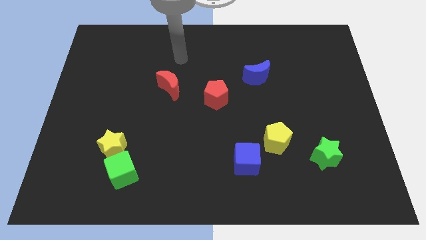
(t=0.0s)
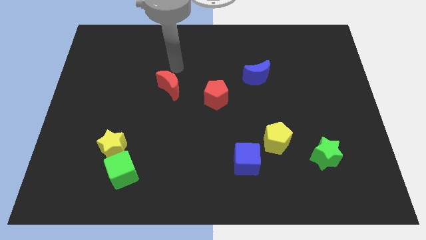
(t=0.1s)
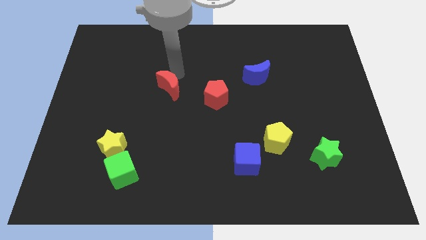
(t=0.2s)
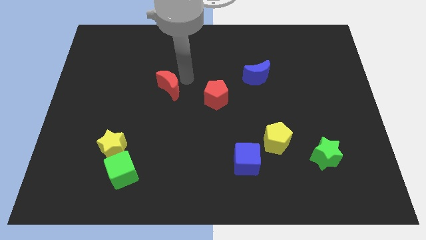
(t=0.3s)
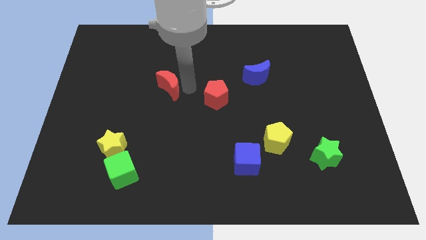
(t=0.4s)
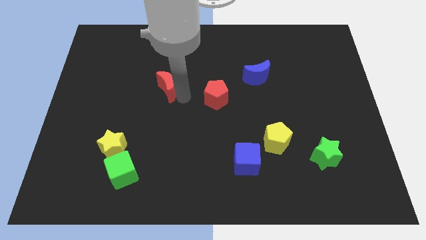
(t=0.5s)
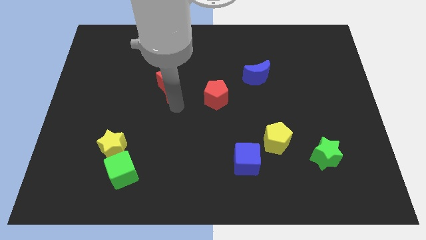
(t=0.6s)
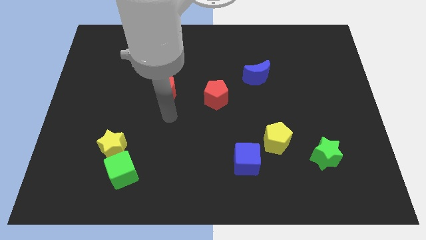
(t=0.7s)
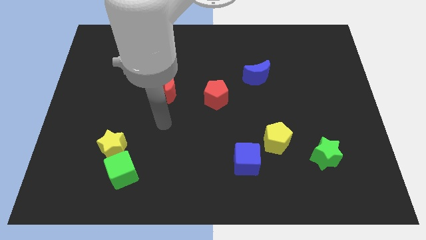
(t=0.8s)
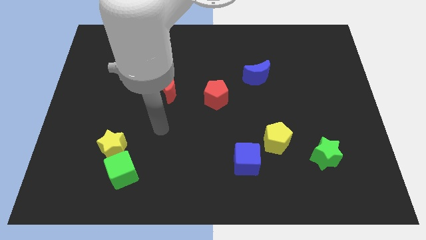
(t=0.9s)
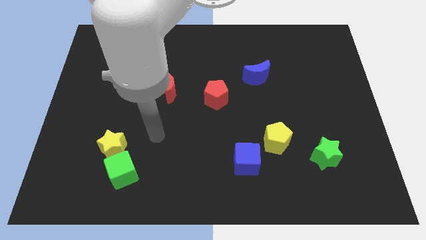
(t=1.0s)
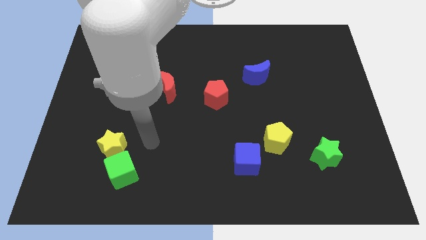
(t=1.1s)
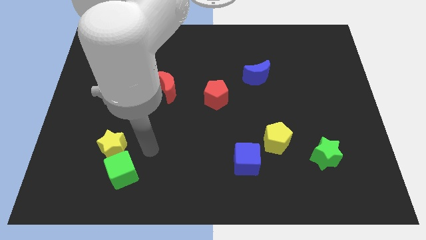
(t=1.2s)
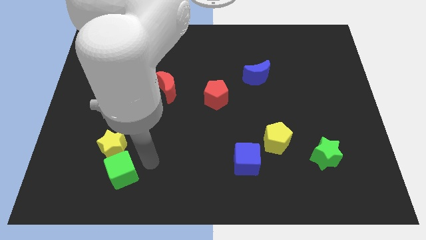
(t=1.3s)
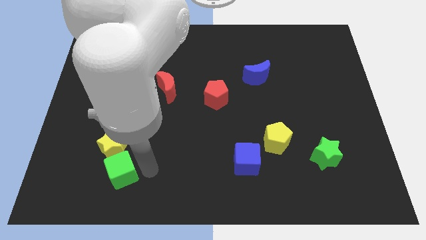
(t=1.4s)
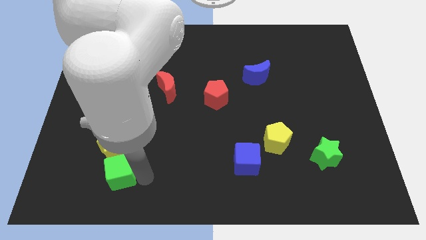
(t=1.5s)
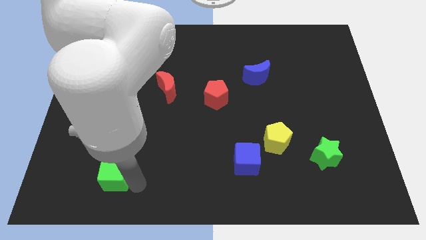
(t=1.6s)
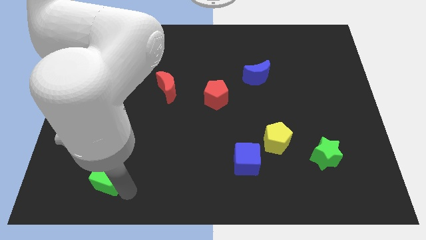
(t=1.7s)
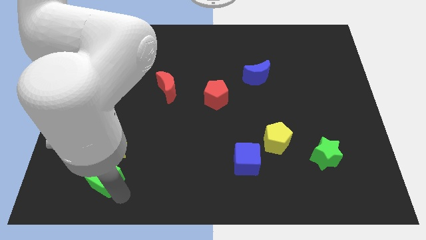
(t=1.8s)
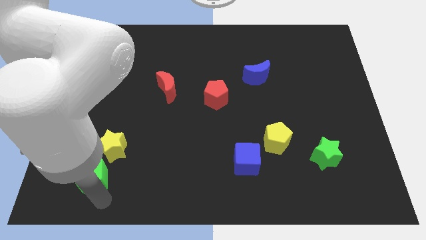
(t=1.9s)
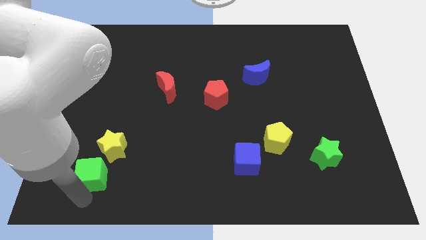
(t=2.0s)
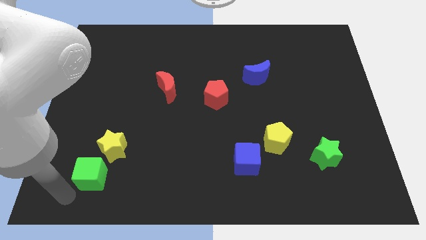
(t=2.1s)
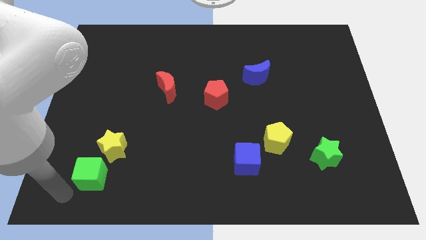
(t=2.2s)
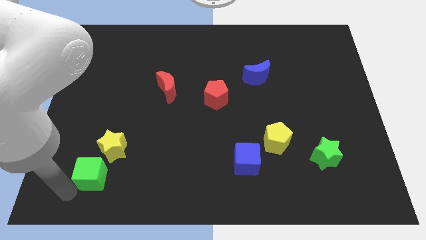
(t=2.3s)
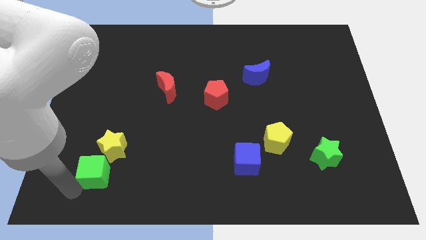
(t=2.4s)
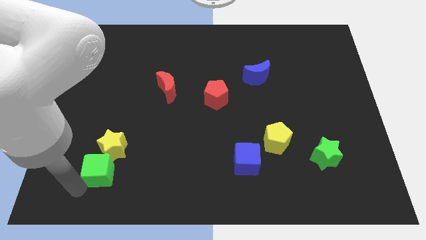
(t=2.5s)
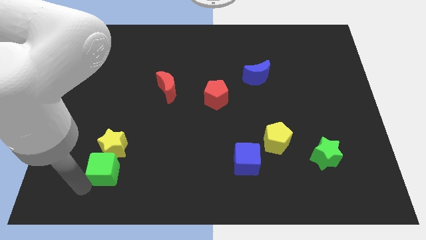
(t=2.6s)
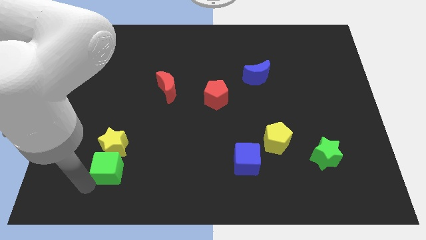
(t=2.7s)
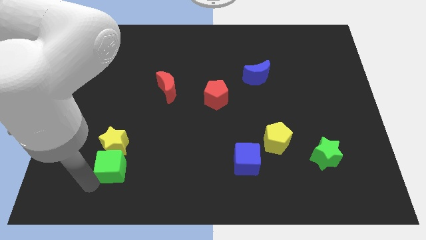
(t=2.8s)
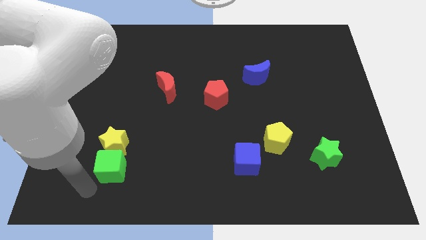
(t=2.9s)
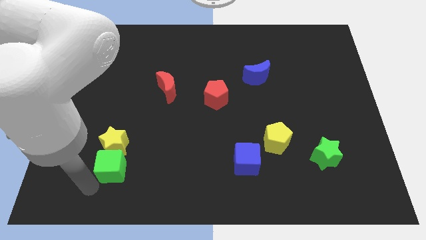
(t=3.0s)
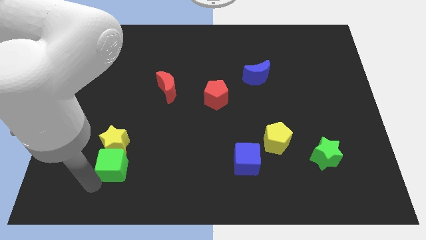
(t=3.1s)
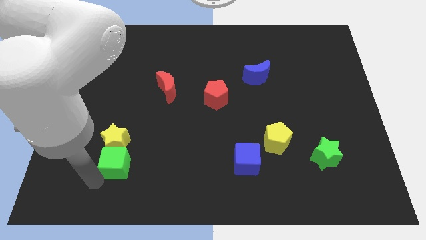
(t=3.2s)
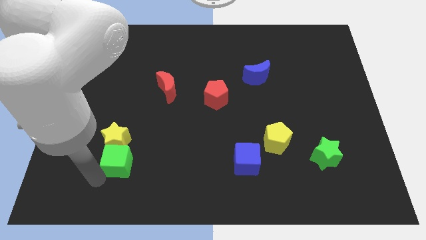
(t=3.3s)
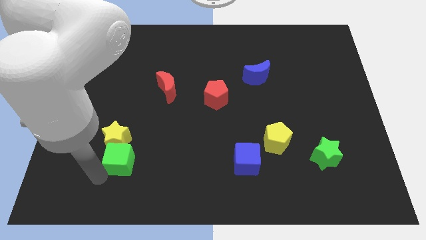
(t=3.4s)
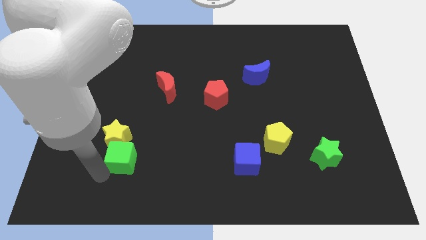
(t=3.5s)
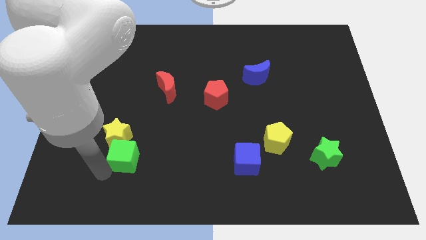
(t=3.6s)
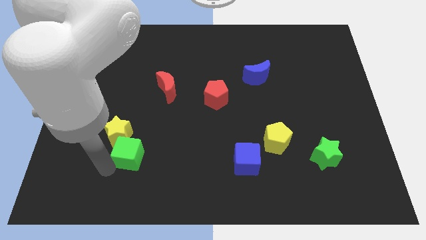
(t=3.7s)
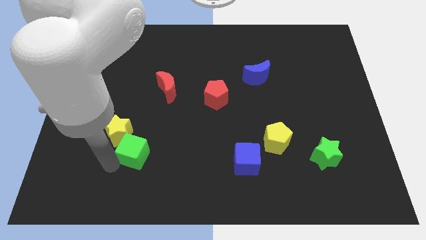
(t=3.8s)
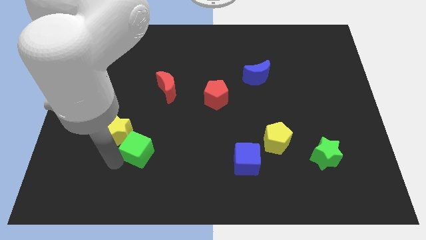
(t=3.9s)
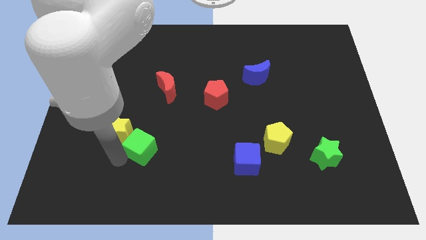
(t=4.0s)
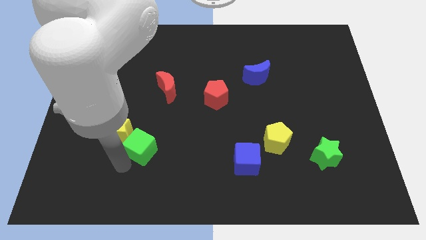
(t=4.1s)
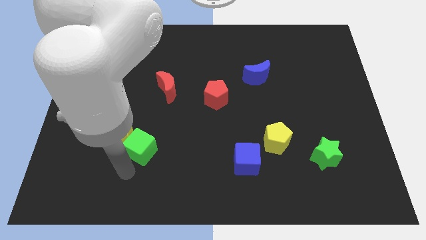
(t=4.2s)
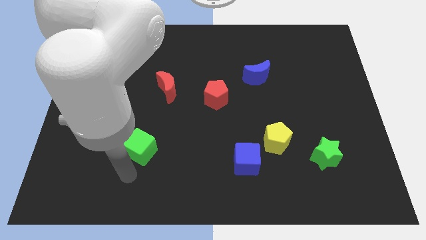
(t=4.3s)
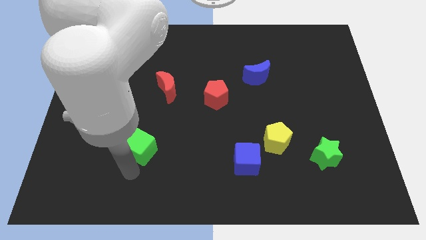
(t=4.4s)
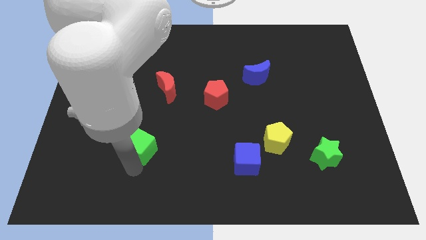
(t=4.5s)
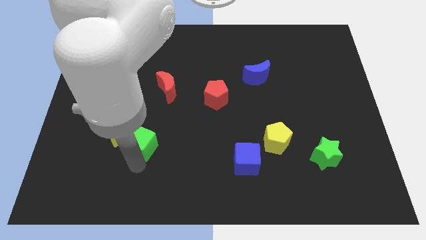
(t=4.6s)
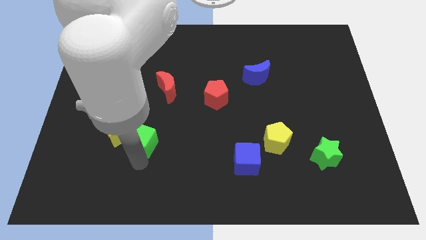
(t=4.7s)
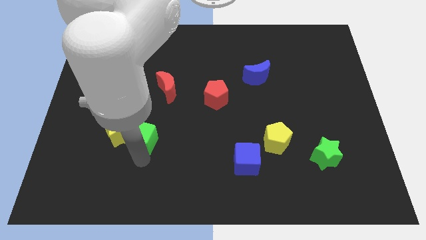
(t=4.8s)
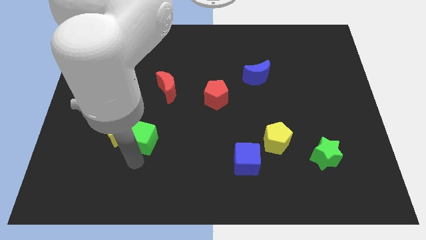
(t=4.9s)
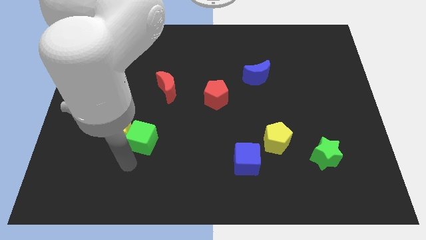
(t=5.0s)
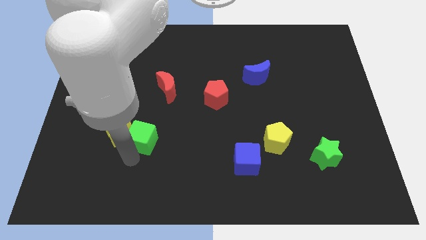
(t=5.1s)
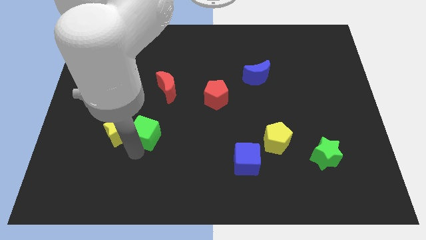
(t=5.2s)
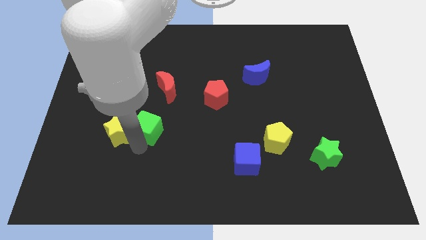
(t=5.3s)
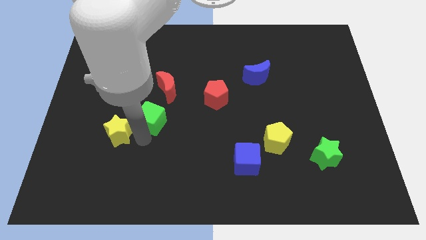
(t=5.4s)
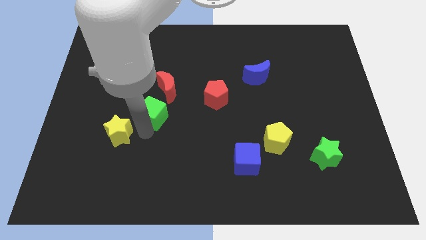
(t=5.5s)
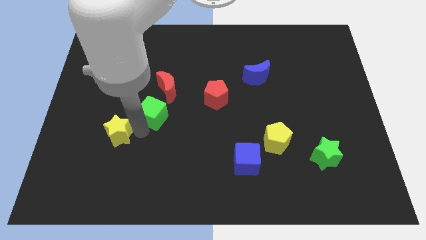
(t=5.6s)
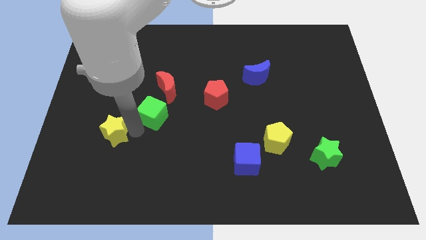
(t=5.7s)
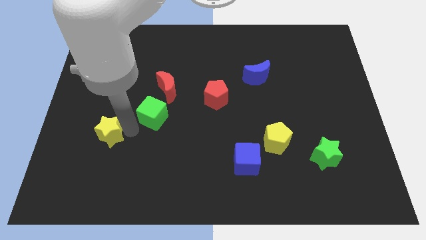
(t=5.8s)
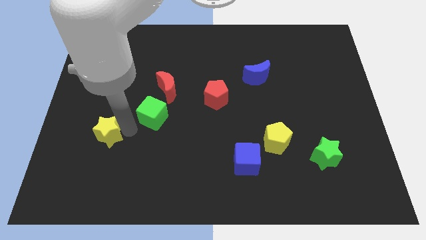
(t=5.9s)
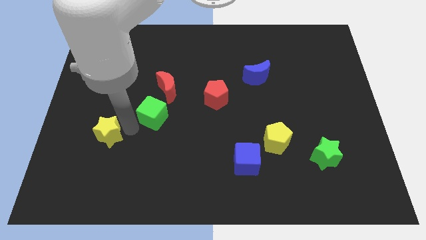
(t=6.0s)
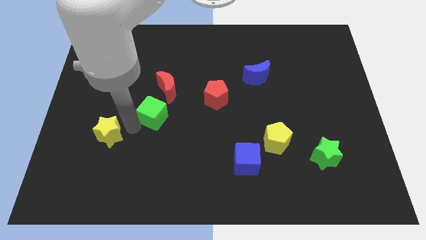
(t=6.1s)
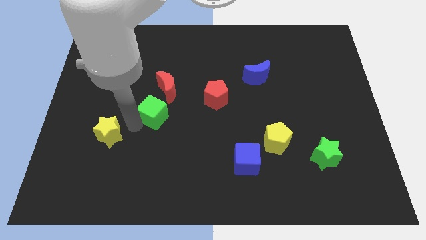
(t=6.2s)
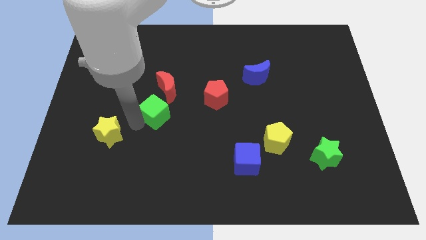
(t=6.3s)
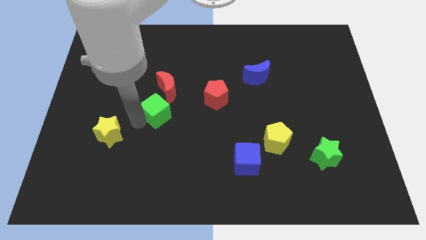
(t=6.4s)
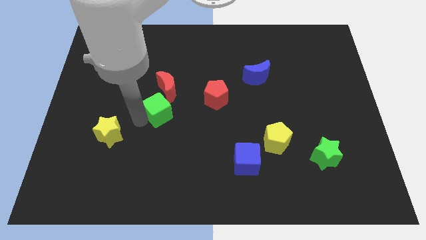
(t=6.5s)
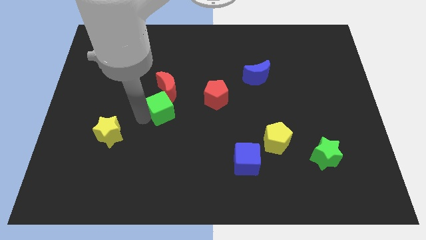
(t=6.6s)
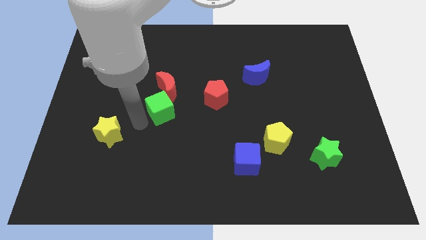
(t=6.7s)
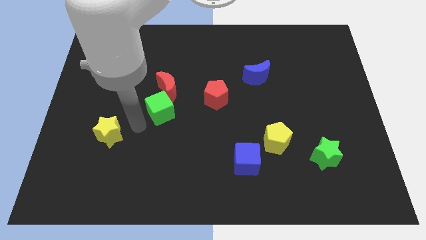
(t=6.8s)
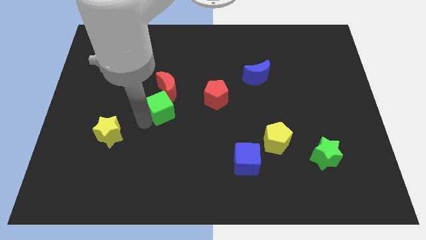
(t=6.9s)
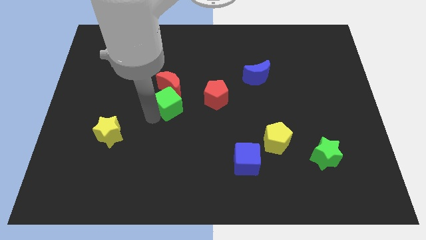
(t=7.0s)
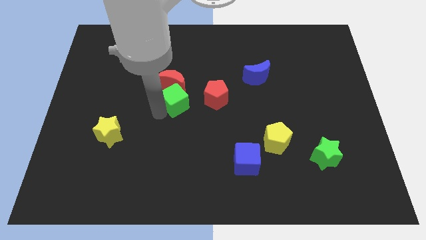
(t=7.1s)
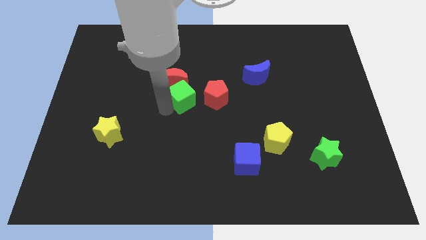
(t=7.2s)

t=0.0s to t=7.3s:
slide the green cube diagonally up and to the right

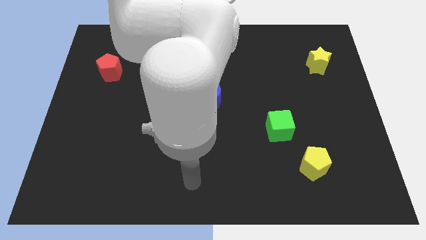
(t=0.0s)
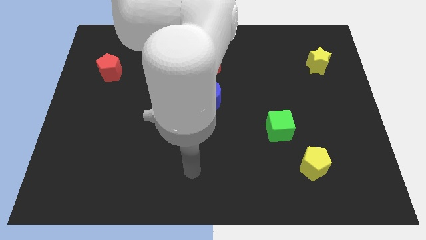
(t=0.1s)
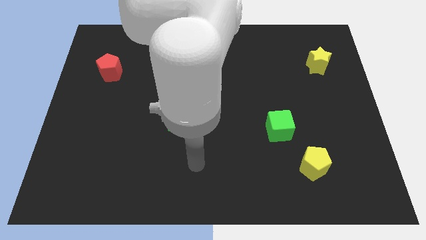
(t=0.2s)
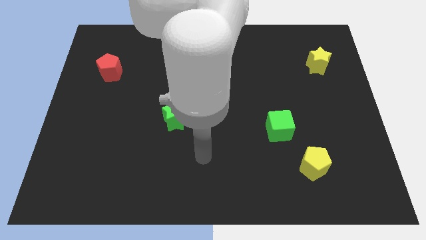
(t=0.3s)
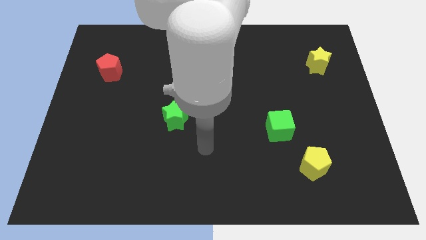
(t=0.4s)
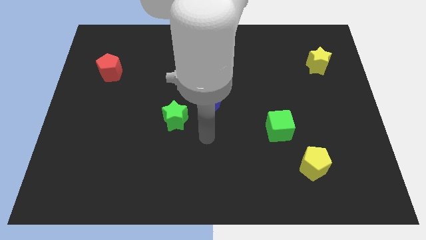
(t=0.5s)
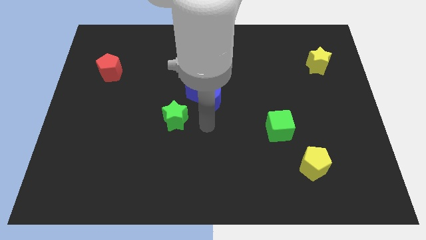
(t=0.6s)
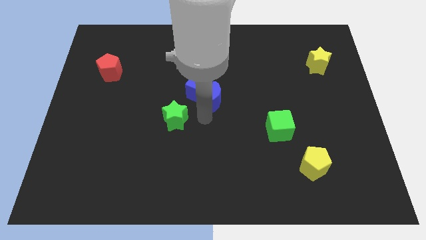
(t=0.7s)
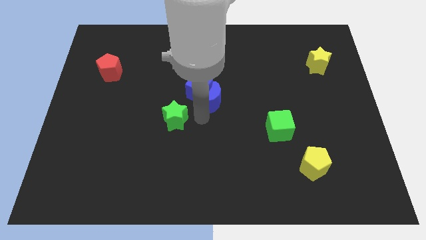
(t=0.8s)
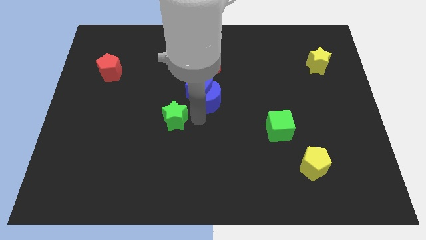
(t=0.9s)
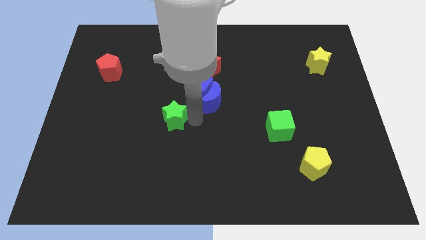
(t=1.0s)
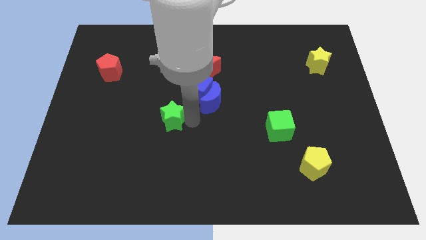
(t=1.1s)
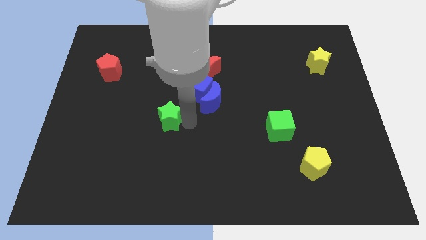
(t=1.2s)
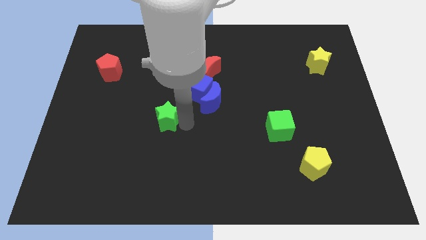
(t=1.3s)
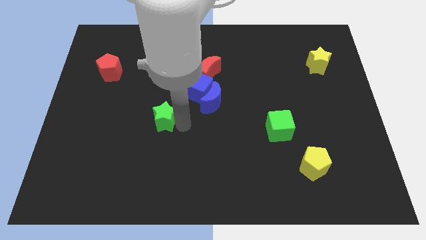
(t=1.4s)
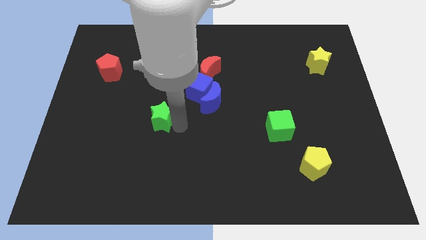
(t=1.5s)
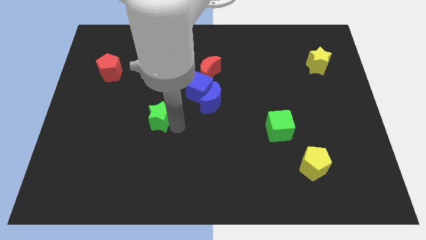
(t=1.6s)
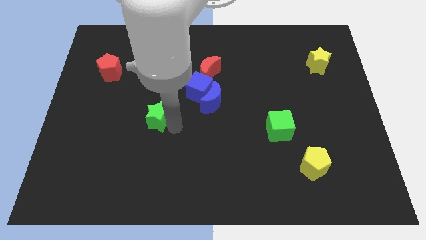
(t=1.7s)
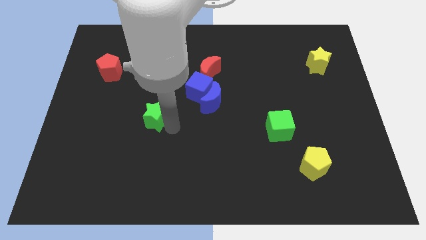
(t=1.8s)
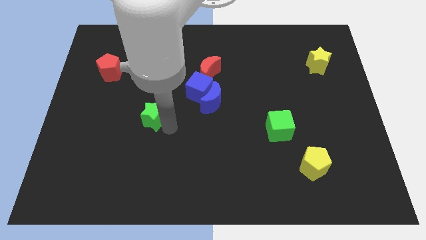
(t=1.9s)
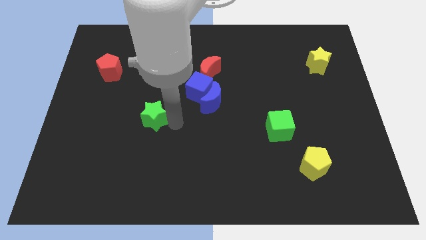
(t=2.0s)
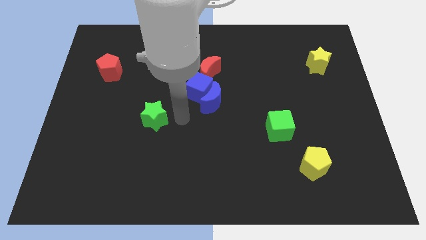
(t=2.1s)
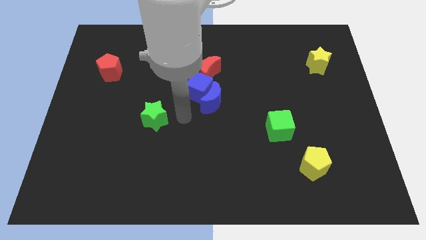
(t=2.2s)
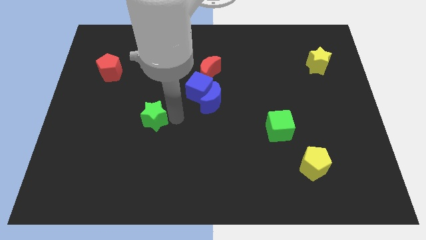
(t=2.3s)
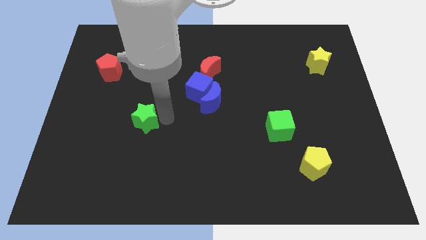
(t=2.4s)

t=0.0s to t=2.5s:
push the green star left somewhat
